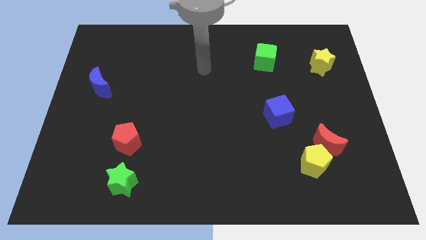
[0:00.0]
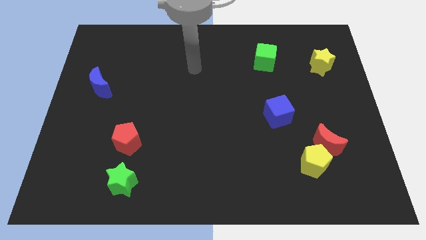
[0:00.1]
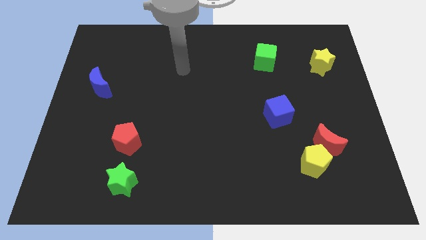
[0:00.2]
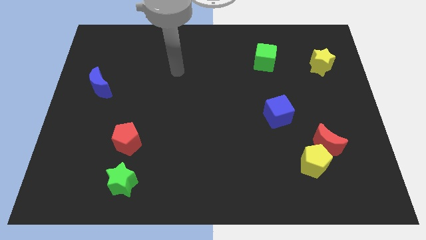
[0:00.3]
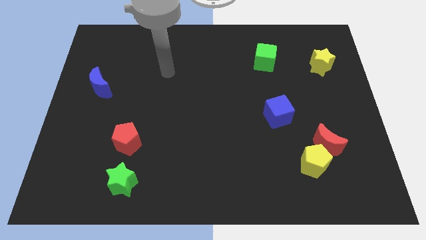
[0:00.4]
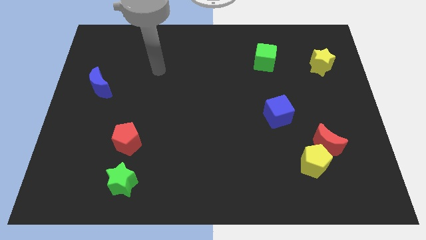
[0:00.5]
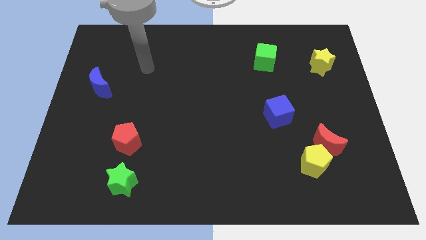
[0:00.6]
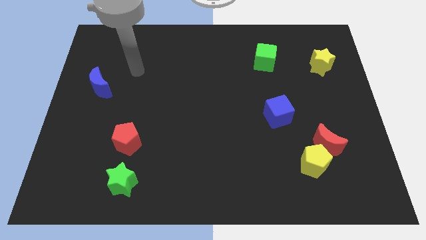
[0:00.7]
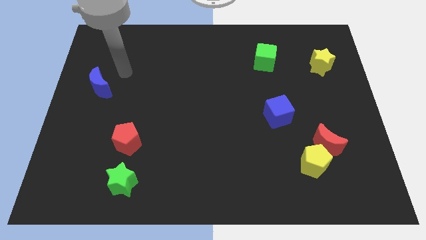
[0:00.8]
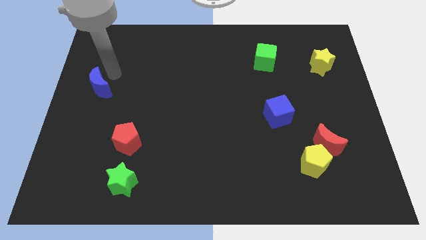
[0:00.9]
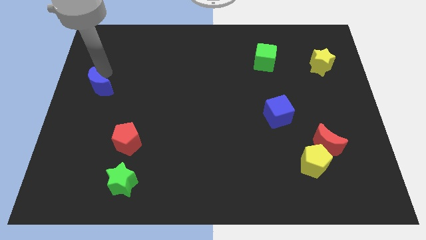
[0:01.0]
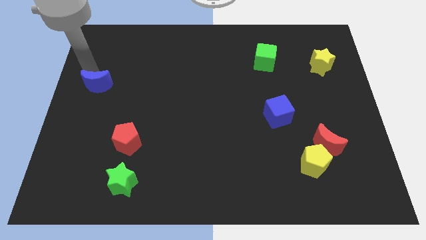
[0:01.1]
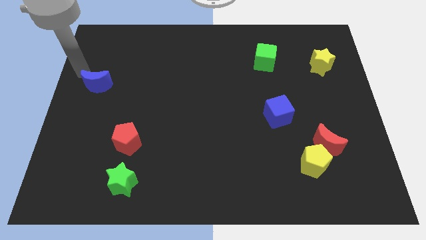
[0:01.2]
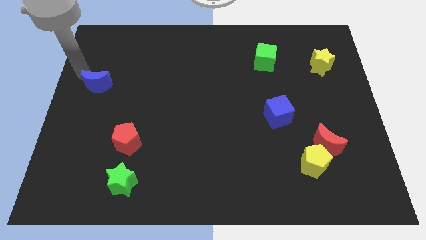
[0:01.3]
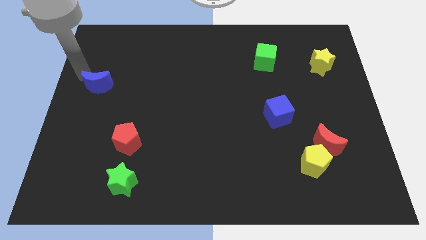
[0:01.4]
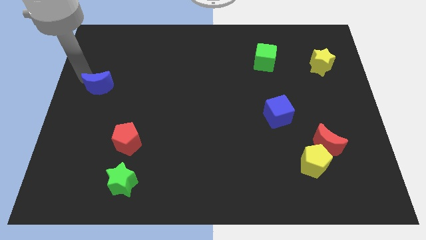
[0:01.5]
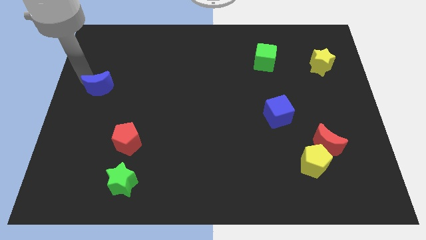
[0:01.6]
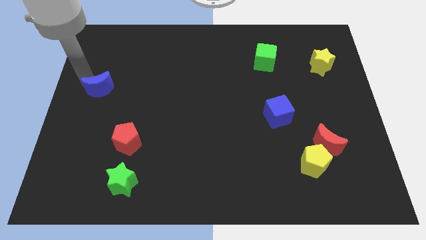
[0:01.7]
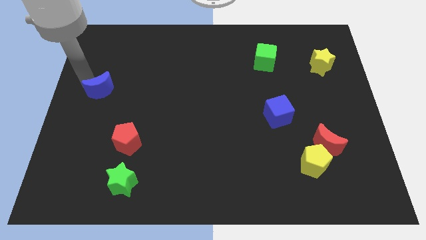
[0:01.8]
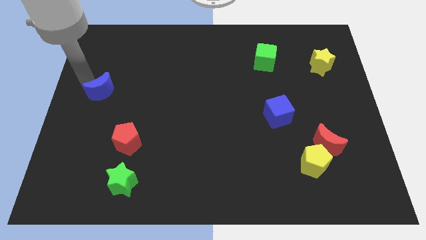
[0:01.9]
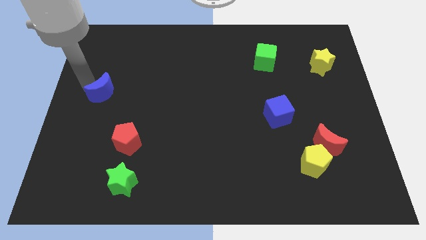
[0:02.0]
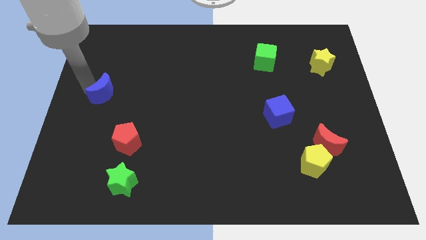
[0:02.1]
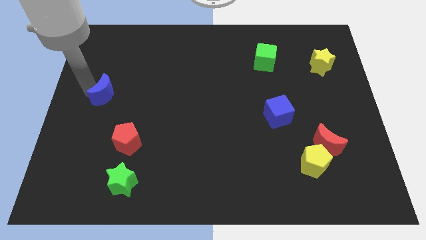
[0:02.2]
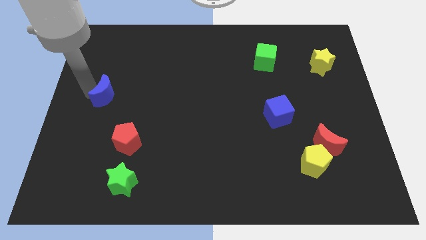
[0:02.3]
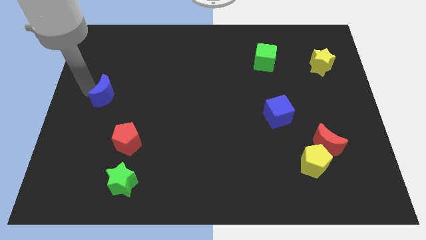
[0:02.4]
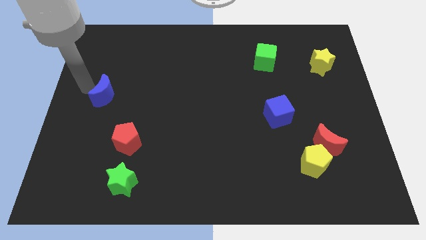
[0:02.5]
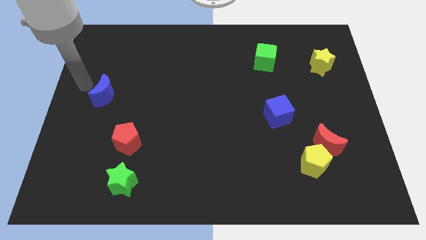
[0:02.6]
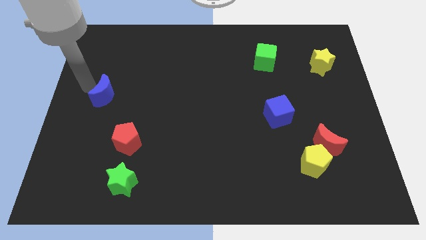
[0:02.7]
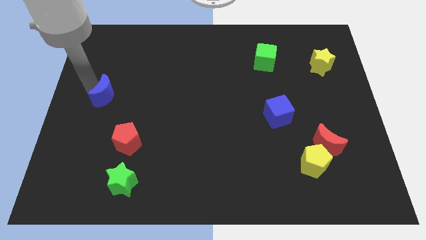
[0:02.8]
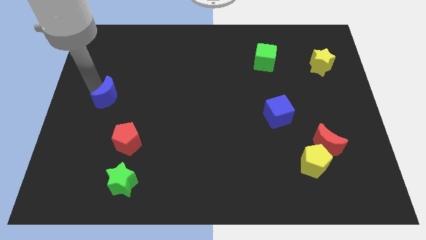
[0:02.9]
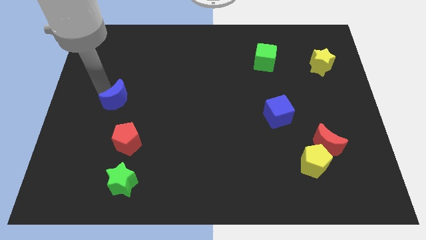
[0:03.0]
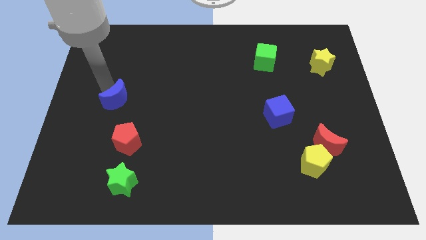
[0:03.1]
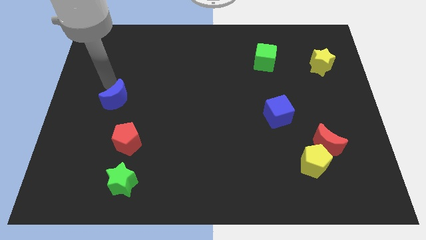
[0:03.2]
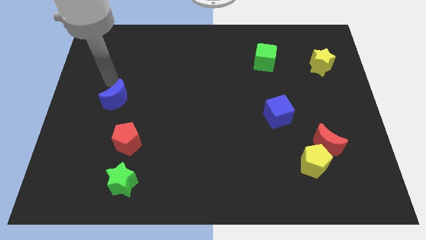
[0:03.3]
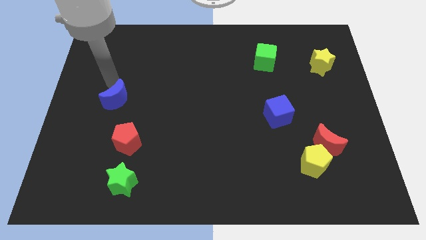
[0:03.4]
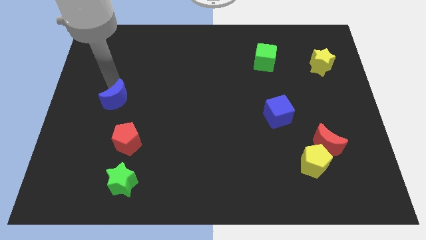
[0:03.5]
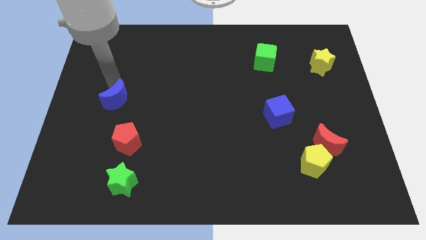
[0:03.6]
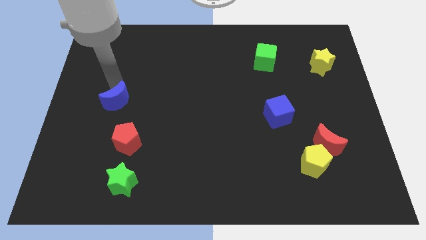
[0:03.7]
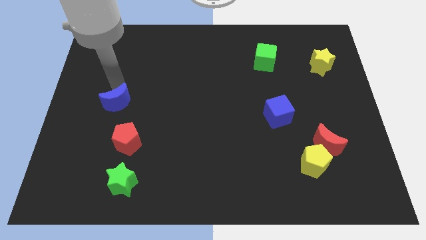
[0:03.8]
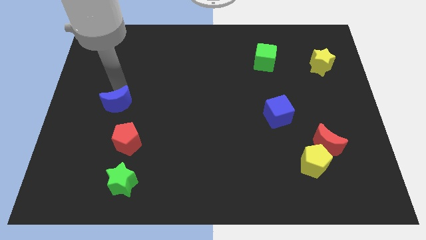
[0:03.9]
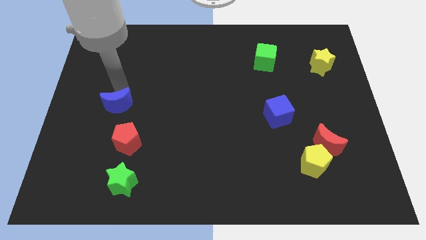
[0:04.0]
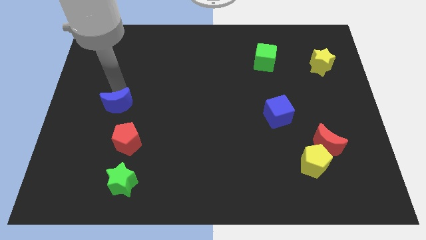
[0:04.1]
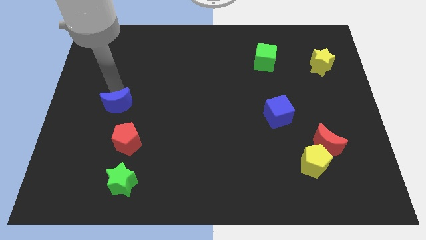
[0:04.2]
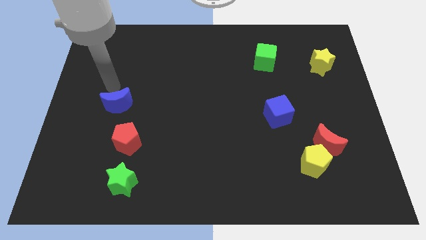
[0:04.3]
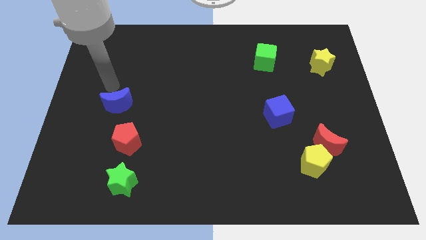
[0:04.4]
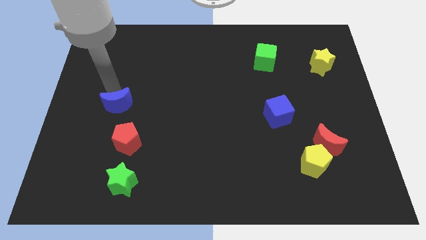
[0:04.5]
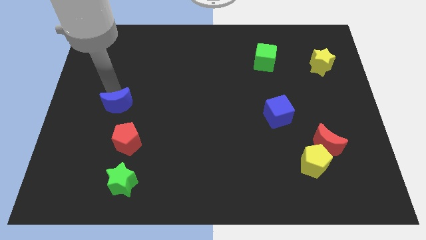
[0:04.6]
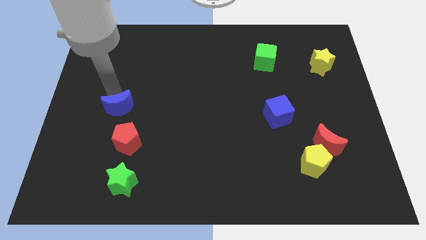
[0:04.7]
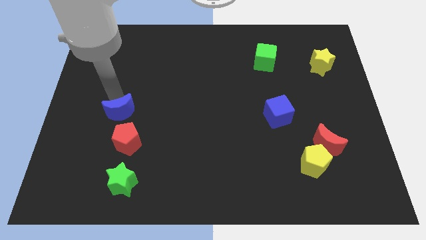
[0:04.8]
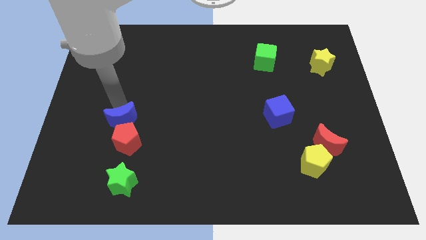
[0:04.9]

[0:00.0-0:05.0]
push the blue moon towards the red pentagon

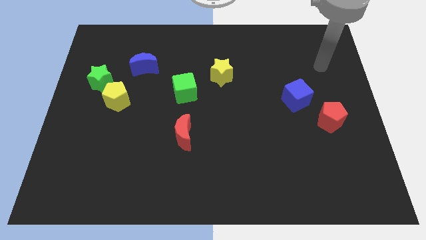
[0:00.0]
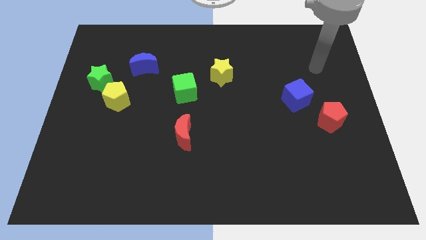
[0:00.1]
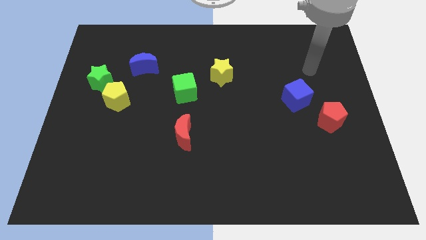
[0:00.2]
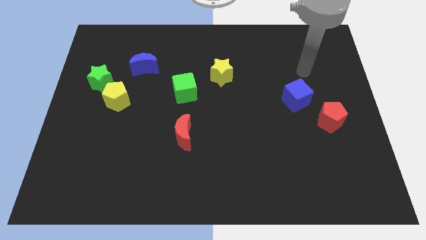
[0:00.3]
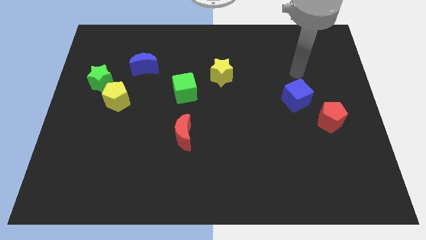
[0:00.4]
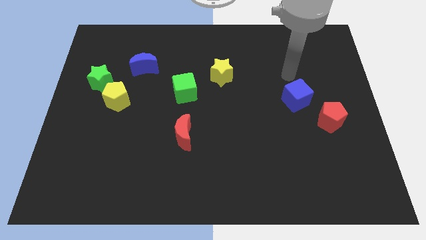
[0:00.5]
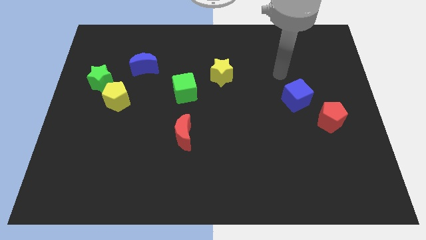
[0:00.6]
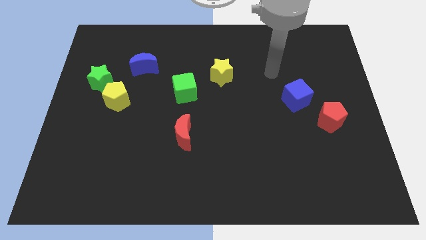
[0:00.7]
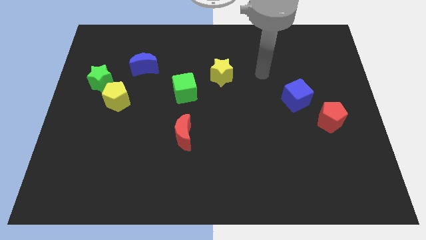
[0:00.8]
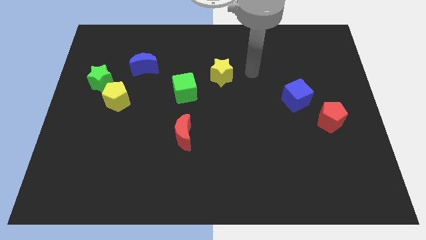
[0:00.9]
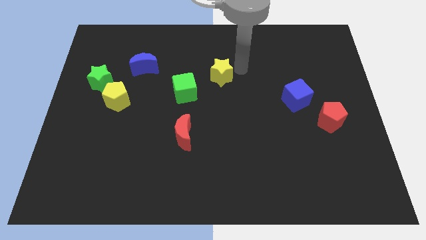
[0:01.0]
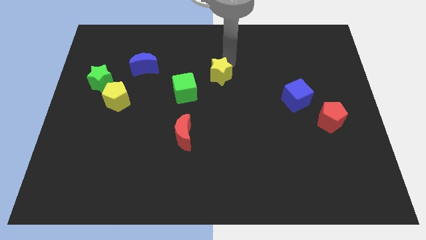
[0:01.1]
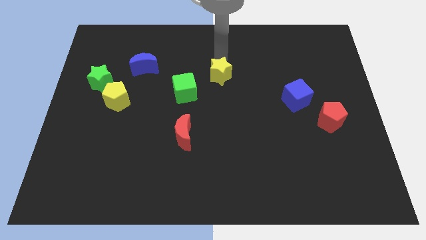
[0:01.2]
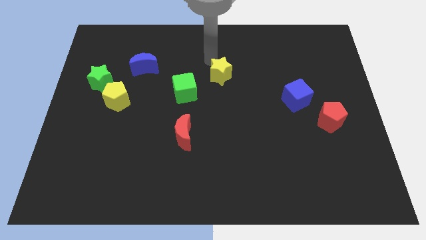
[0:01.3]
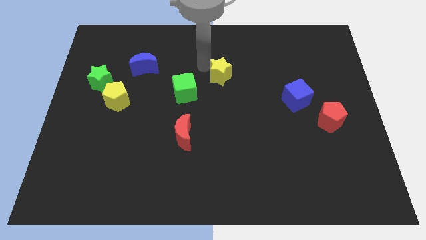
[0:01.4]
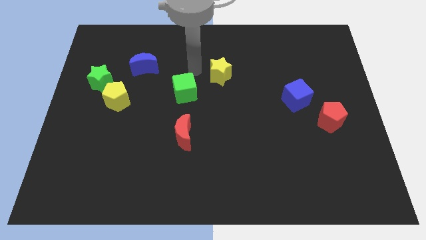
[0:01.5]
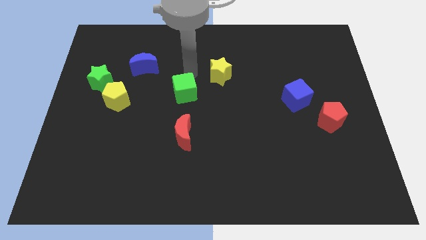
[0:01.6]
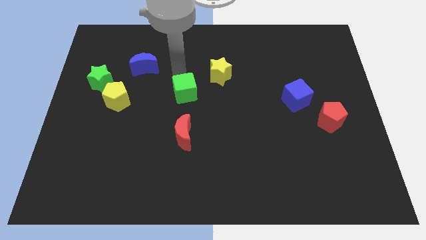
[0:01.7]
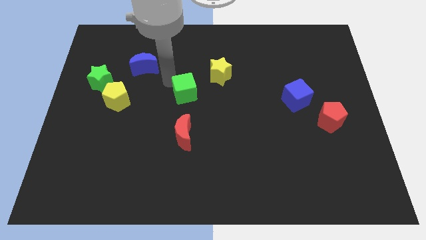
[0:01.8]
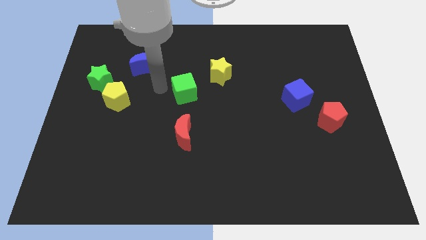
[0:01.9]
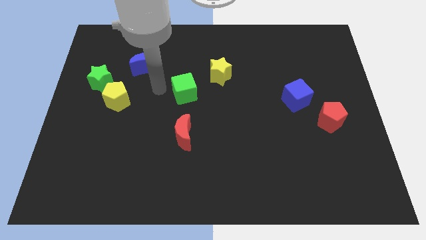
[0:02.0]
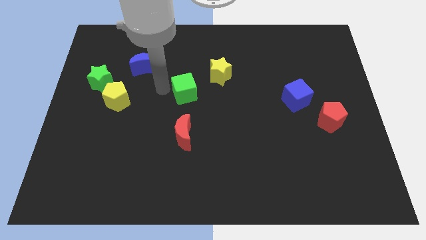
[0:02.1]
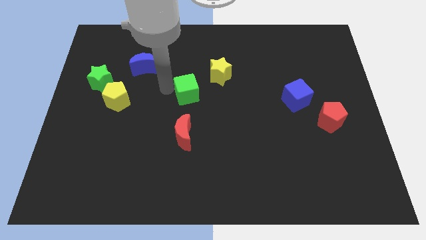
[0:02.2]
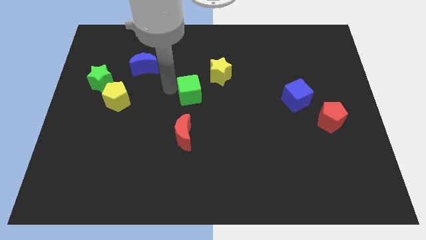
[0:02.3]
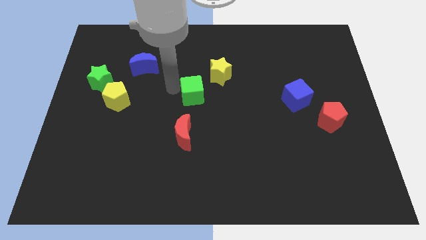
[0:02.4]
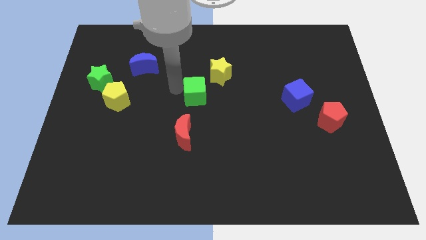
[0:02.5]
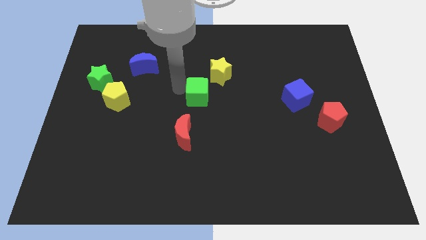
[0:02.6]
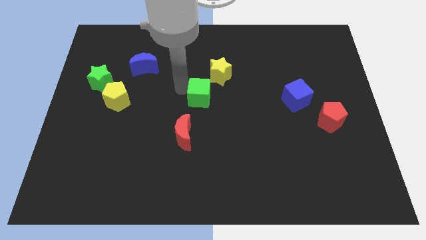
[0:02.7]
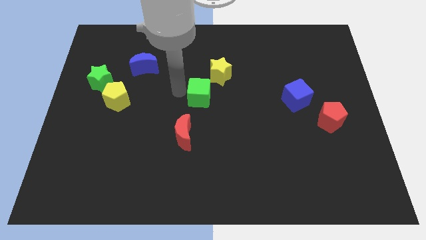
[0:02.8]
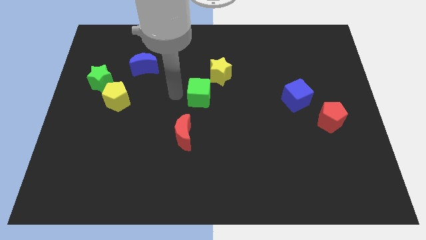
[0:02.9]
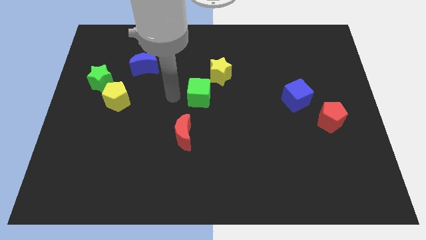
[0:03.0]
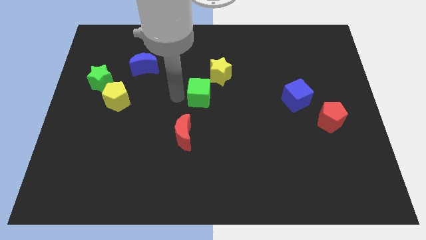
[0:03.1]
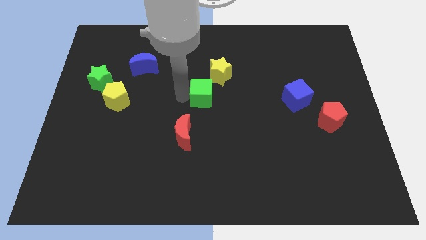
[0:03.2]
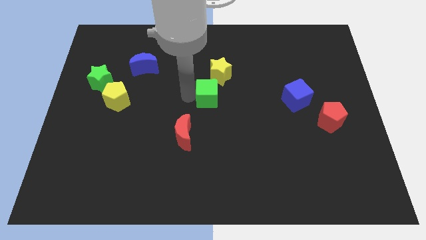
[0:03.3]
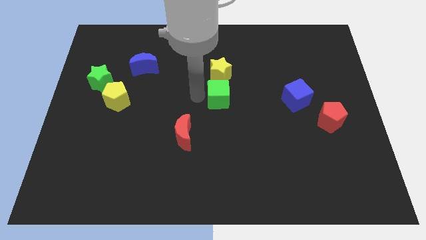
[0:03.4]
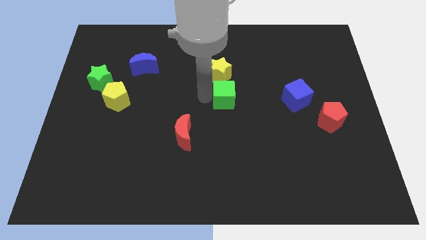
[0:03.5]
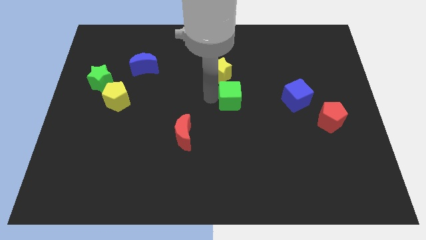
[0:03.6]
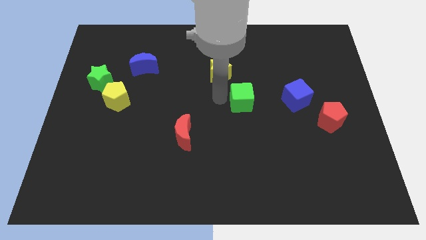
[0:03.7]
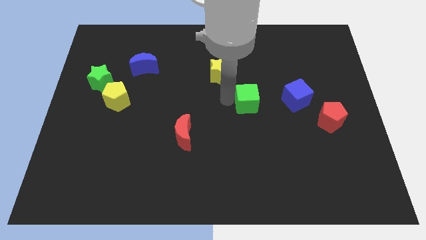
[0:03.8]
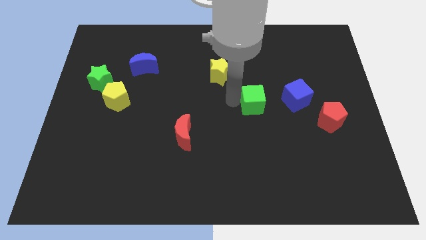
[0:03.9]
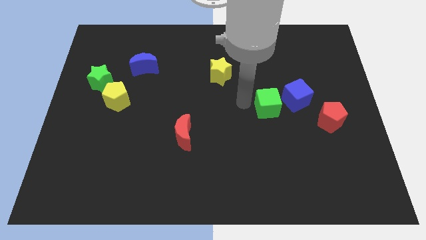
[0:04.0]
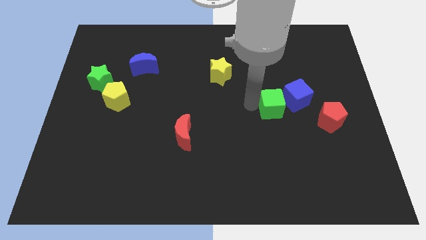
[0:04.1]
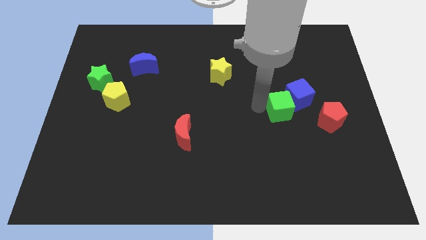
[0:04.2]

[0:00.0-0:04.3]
put the green cube close to the blue cube
